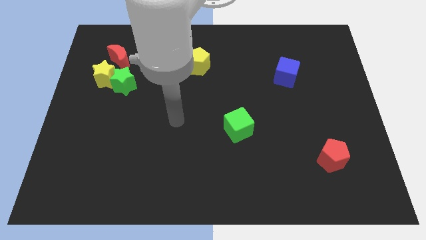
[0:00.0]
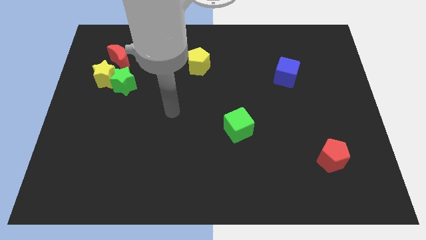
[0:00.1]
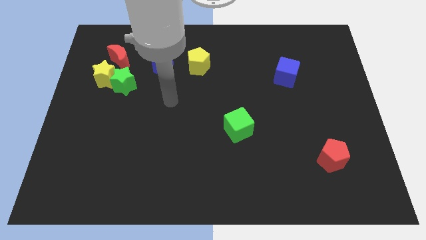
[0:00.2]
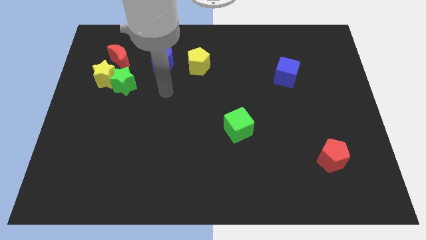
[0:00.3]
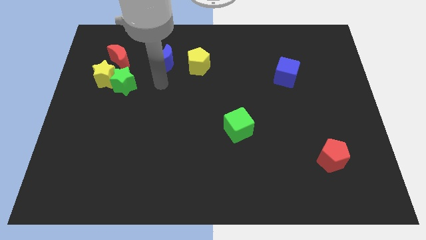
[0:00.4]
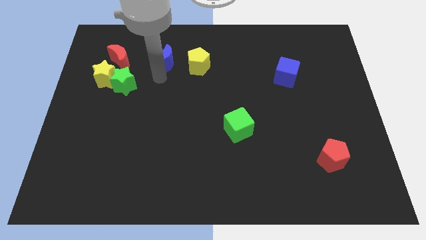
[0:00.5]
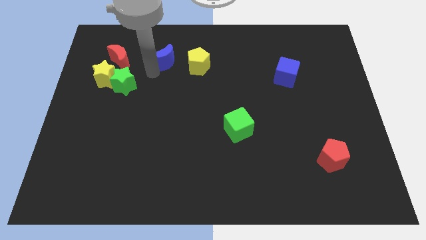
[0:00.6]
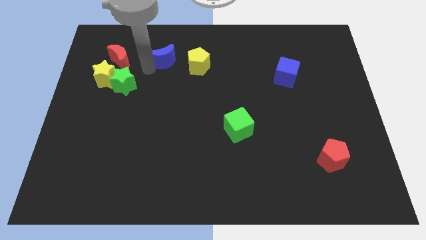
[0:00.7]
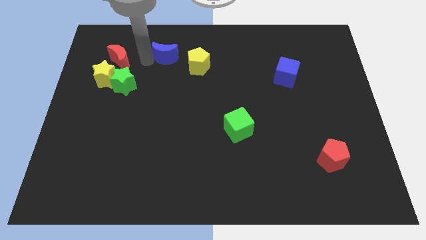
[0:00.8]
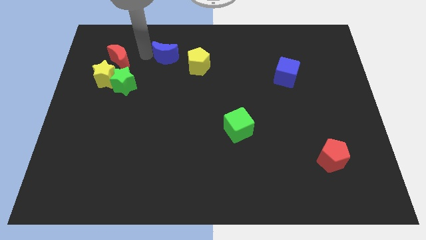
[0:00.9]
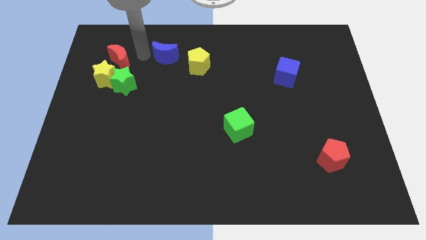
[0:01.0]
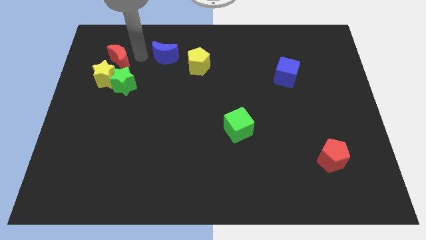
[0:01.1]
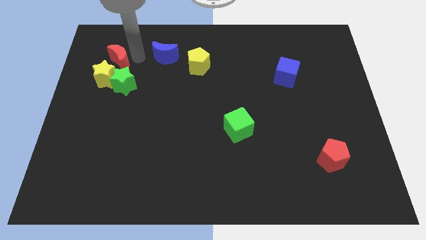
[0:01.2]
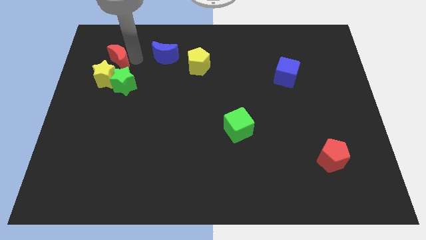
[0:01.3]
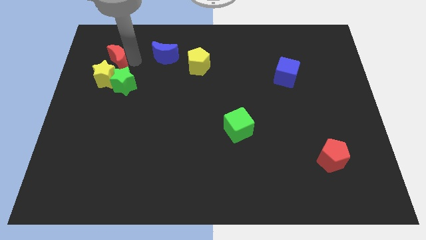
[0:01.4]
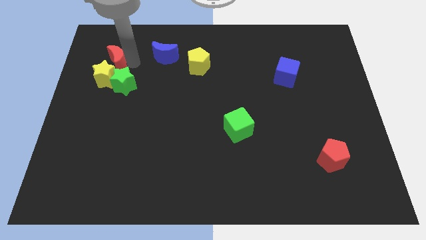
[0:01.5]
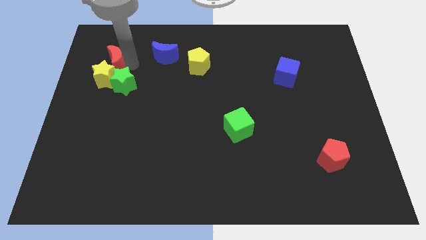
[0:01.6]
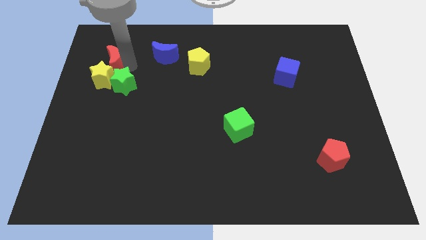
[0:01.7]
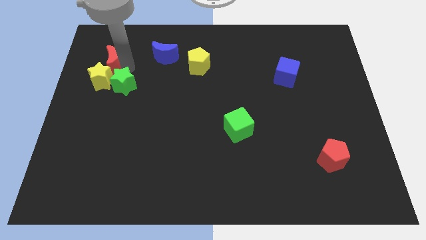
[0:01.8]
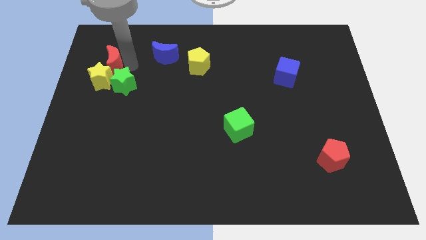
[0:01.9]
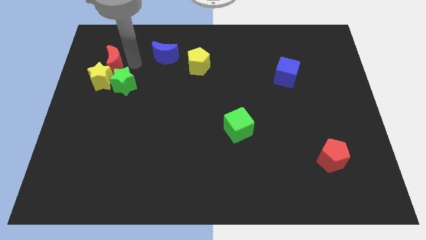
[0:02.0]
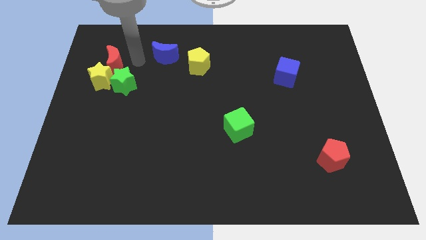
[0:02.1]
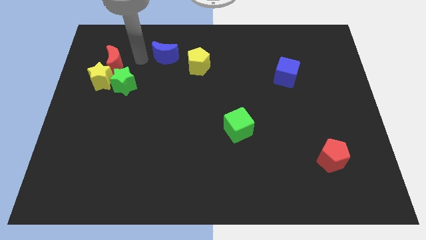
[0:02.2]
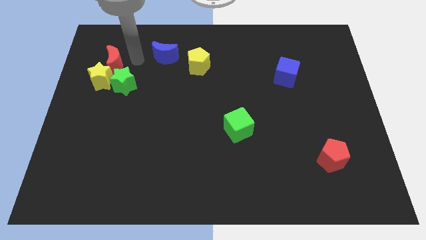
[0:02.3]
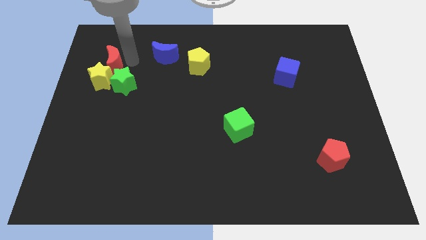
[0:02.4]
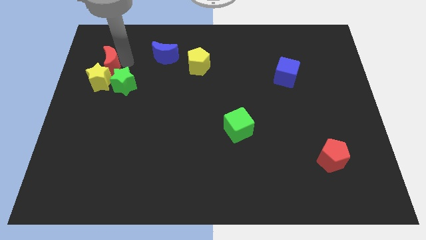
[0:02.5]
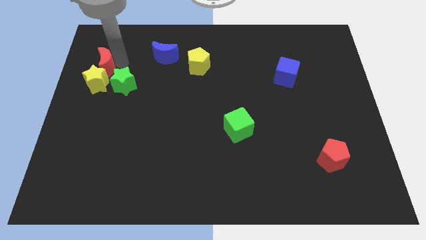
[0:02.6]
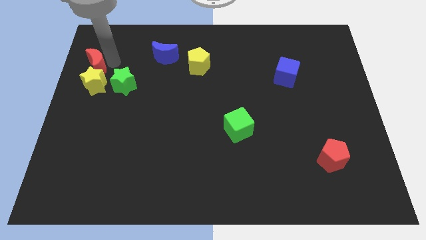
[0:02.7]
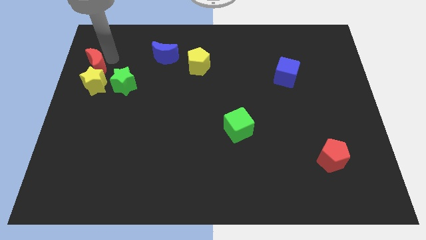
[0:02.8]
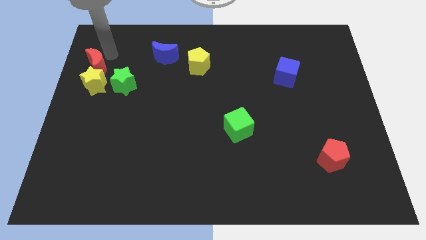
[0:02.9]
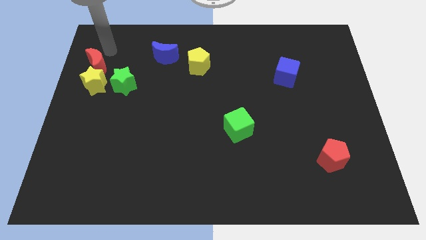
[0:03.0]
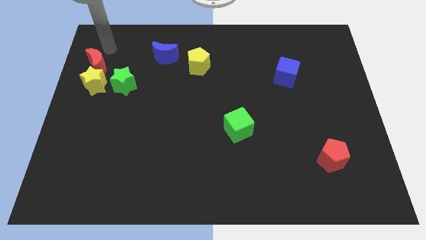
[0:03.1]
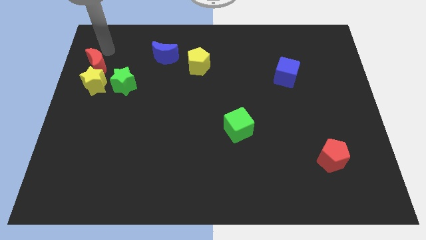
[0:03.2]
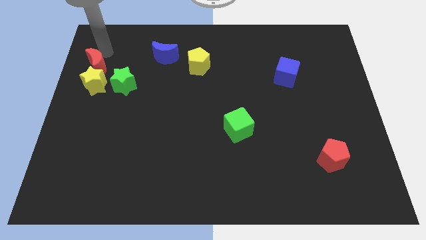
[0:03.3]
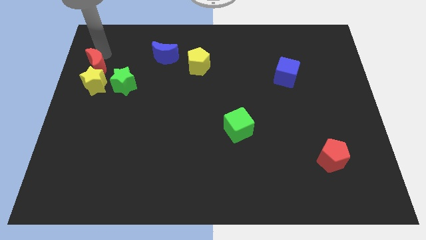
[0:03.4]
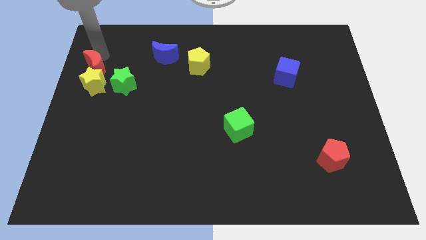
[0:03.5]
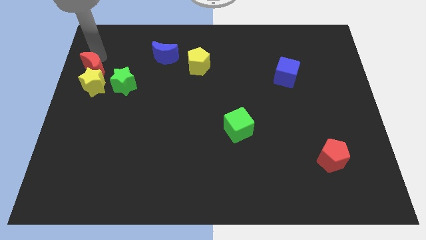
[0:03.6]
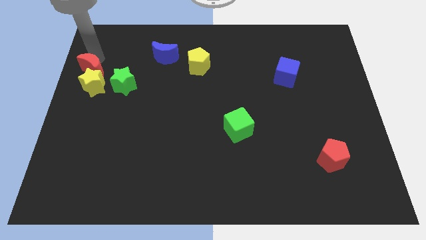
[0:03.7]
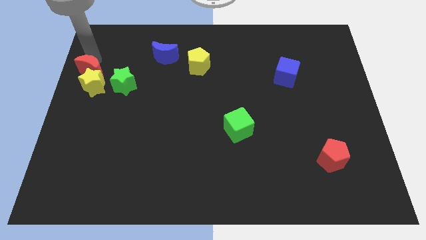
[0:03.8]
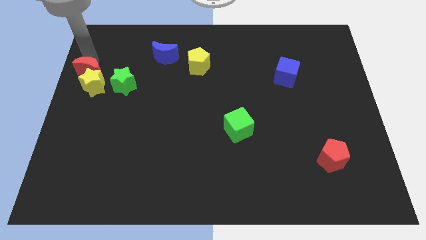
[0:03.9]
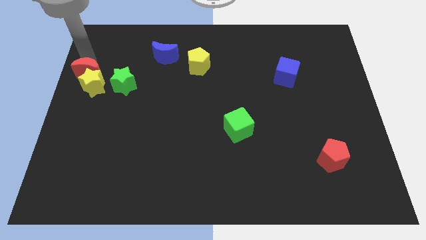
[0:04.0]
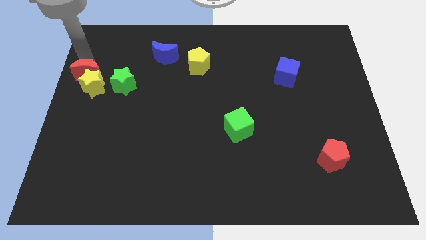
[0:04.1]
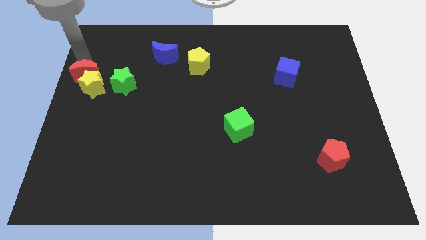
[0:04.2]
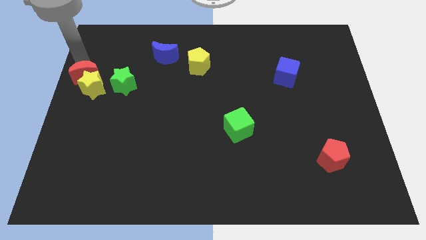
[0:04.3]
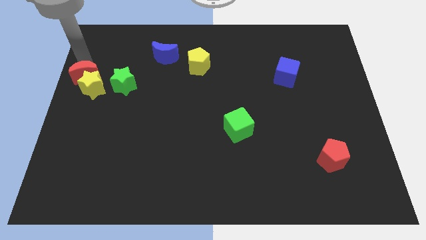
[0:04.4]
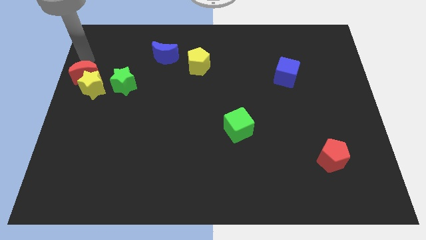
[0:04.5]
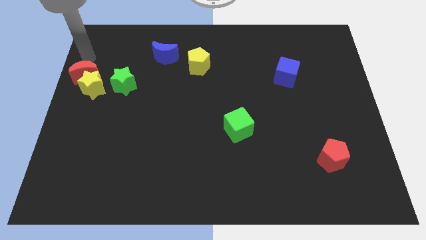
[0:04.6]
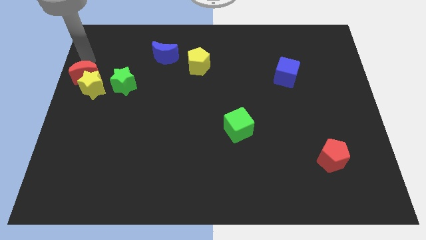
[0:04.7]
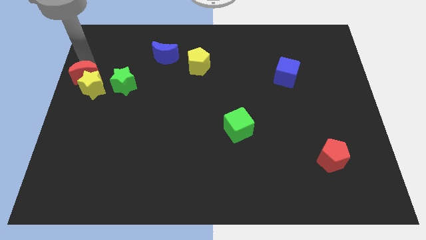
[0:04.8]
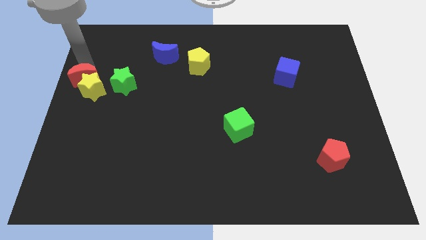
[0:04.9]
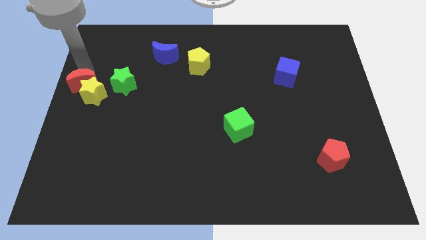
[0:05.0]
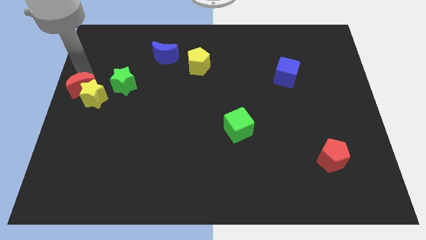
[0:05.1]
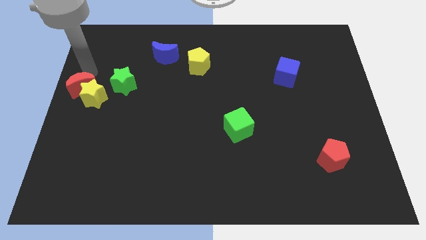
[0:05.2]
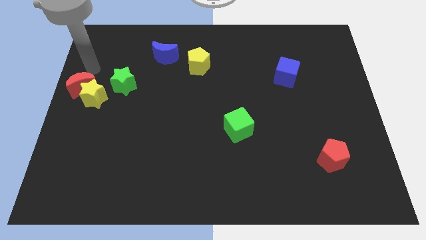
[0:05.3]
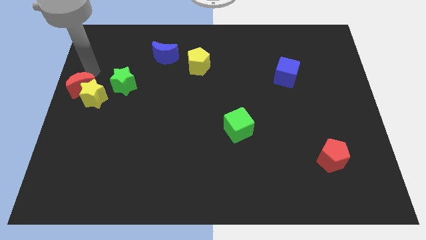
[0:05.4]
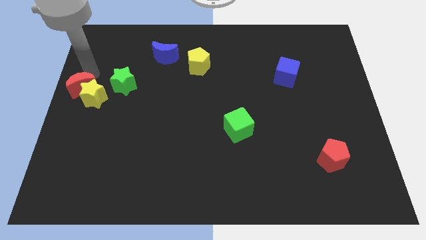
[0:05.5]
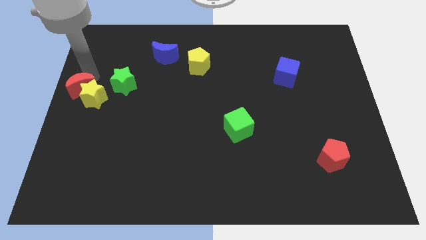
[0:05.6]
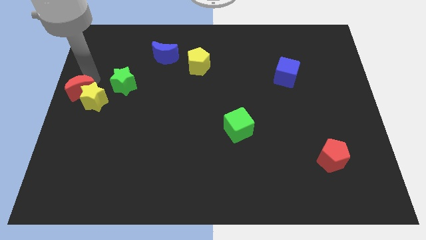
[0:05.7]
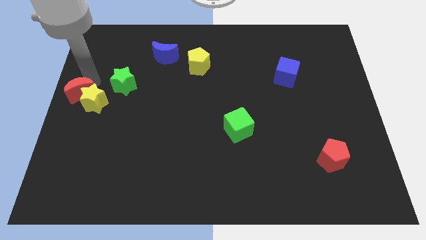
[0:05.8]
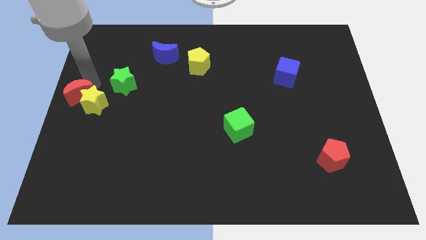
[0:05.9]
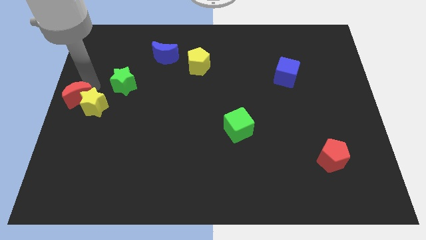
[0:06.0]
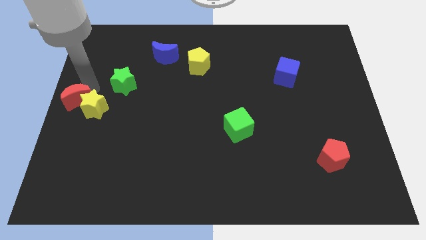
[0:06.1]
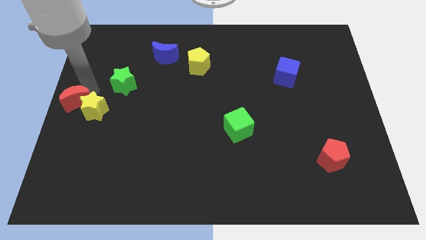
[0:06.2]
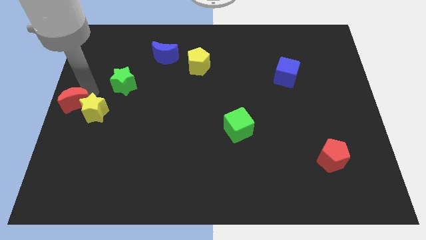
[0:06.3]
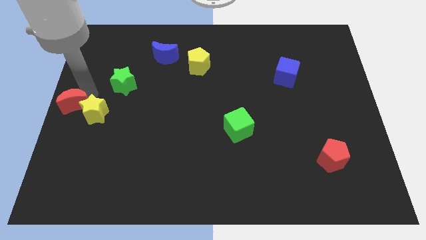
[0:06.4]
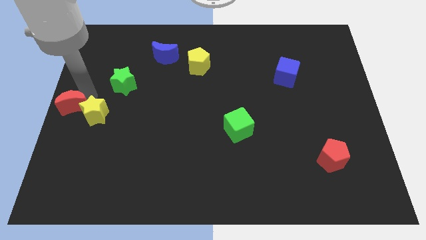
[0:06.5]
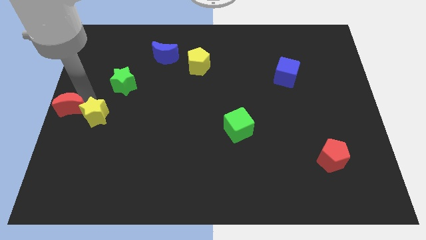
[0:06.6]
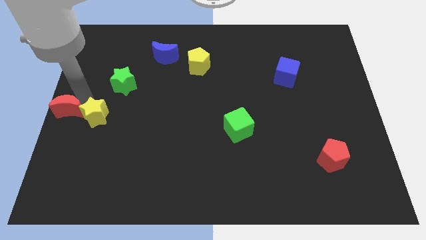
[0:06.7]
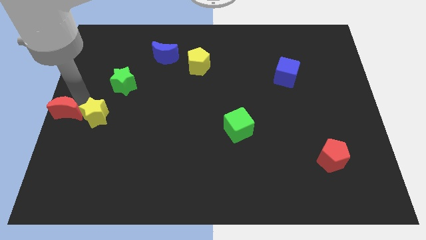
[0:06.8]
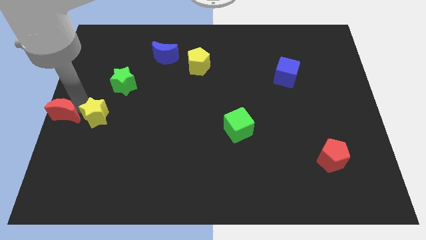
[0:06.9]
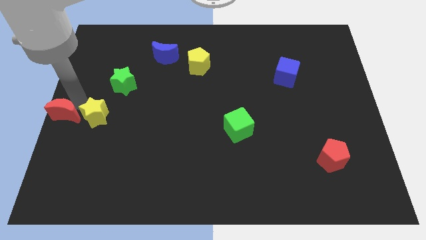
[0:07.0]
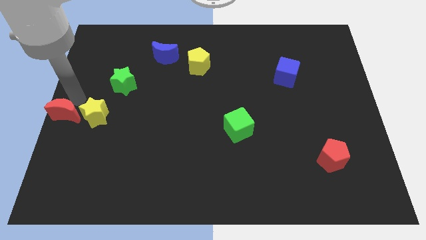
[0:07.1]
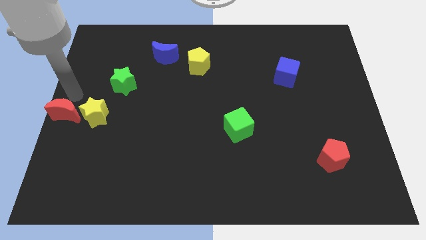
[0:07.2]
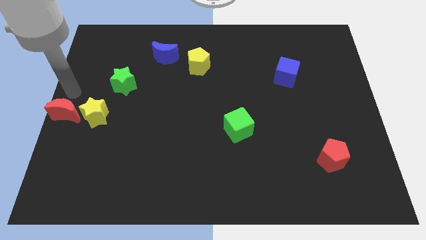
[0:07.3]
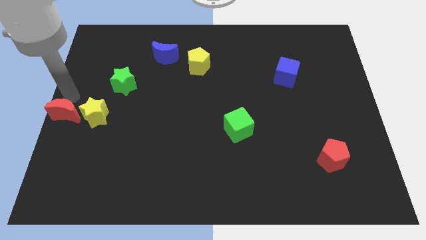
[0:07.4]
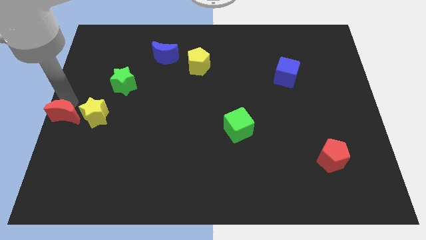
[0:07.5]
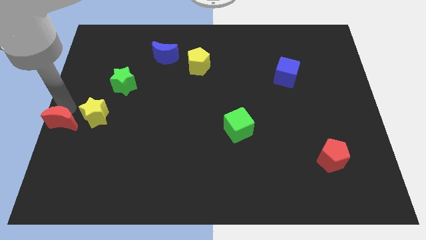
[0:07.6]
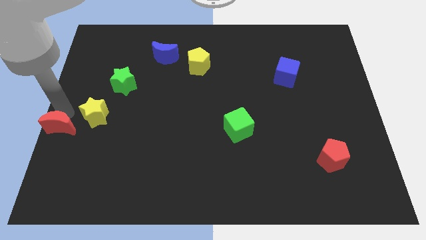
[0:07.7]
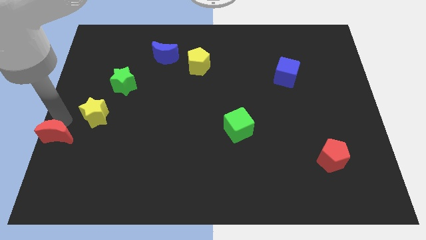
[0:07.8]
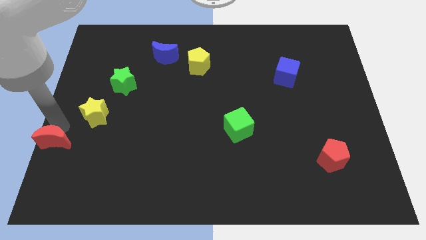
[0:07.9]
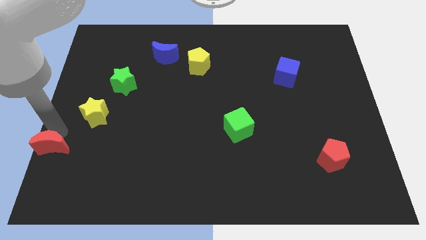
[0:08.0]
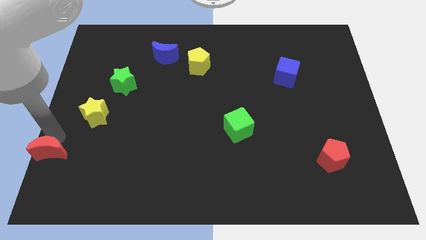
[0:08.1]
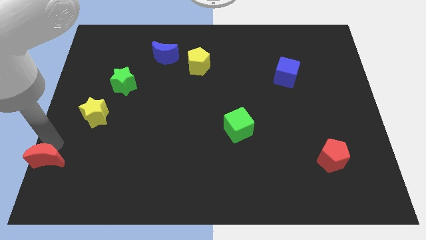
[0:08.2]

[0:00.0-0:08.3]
push the red moon to the bottom left corner
